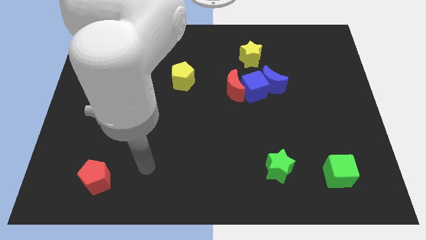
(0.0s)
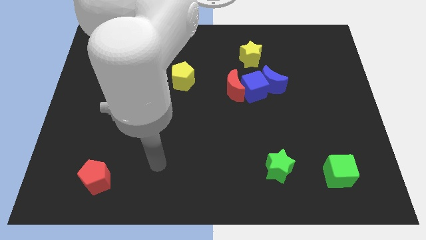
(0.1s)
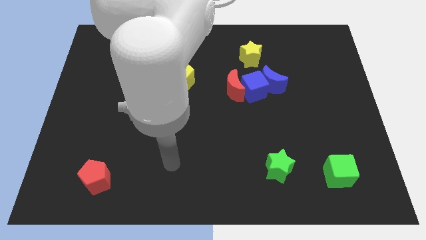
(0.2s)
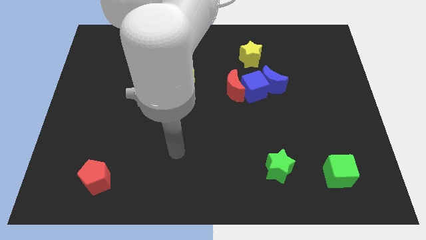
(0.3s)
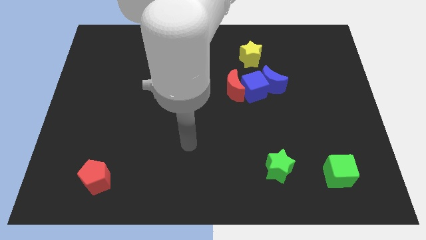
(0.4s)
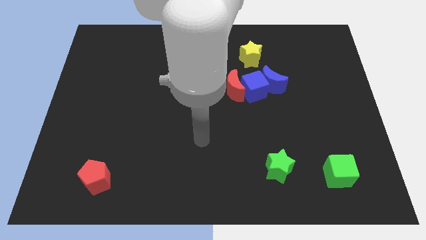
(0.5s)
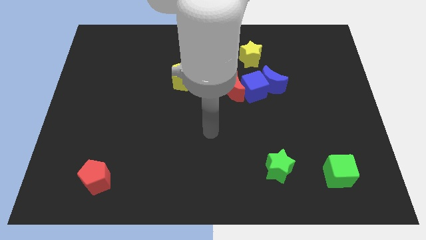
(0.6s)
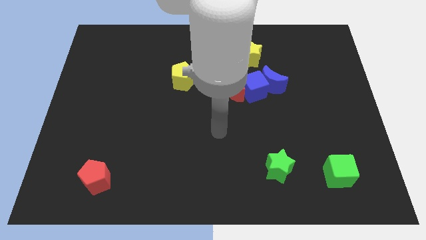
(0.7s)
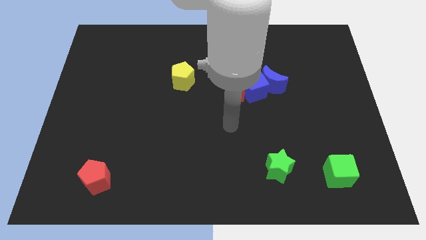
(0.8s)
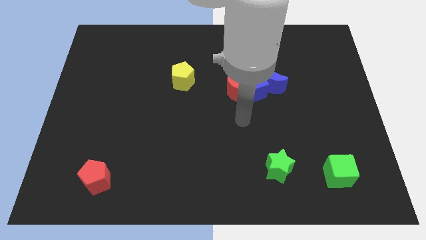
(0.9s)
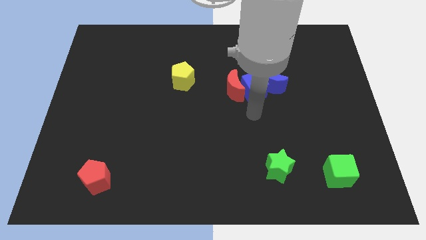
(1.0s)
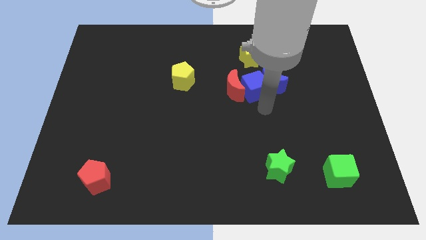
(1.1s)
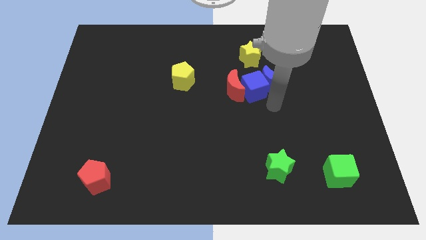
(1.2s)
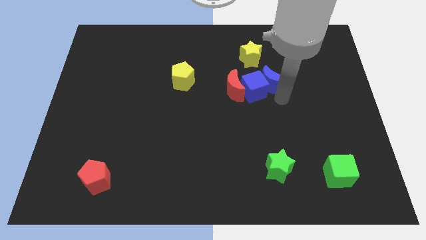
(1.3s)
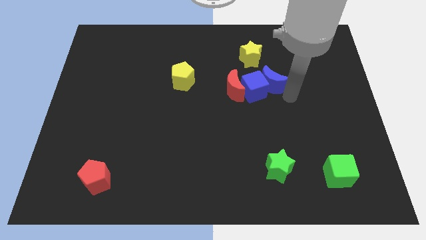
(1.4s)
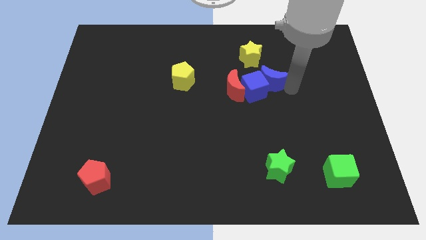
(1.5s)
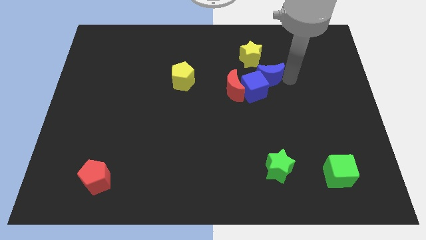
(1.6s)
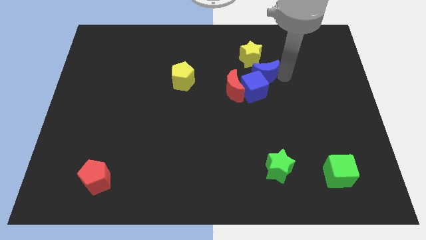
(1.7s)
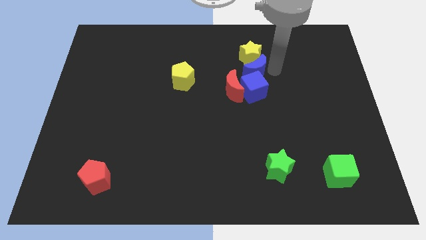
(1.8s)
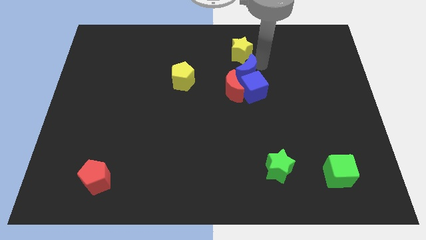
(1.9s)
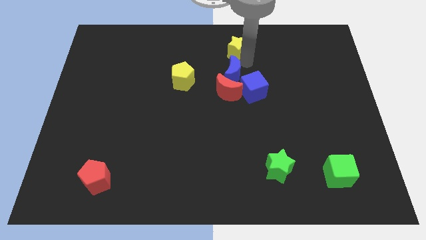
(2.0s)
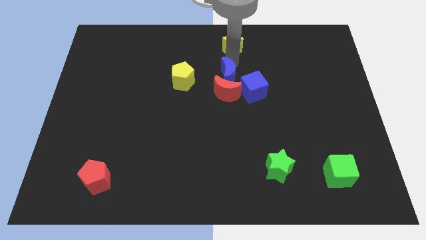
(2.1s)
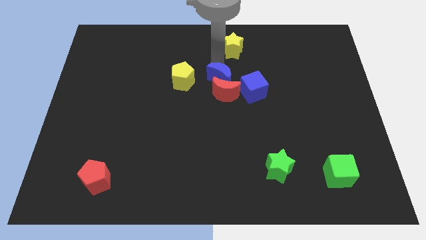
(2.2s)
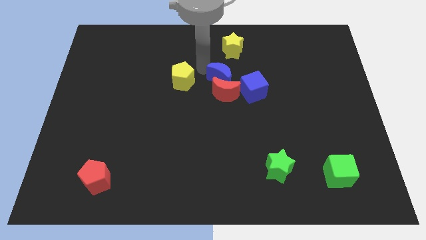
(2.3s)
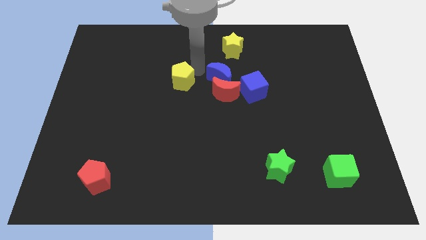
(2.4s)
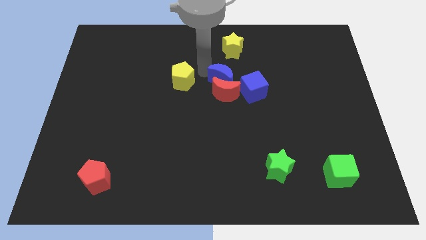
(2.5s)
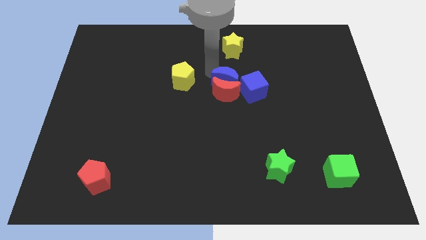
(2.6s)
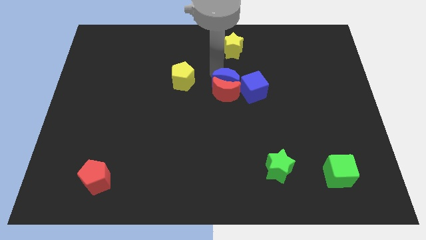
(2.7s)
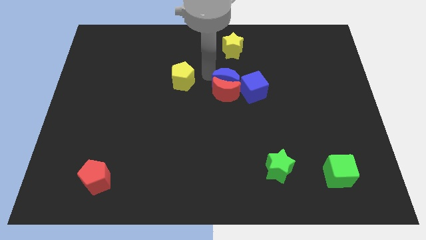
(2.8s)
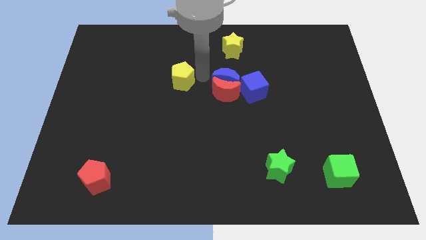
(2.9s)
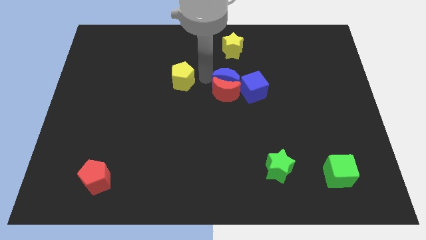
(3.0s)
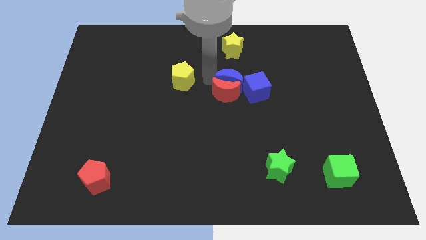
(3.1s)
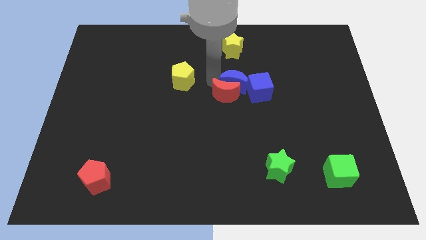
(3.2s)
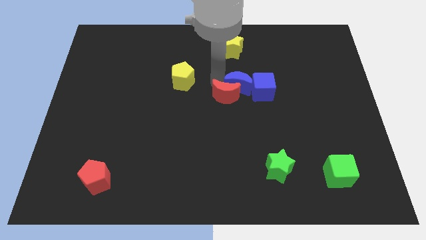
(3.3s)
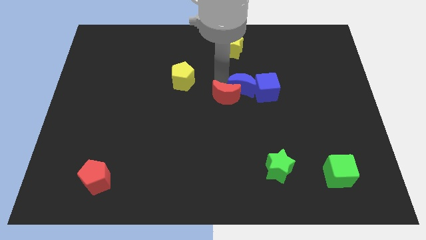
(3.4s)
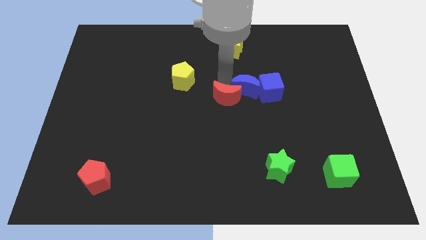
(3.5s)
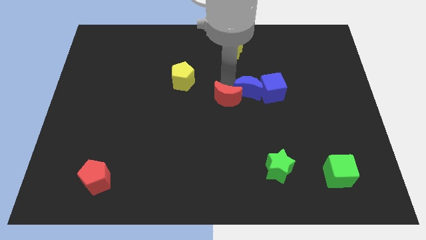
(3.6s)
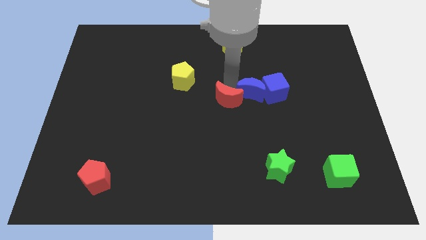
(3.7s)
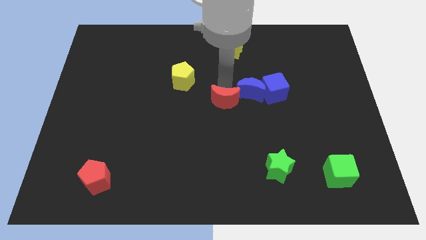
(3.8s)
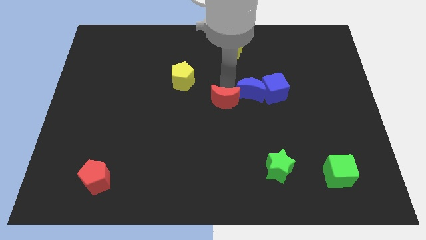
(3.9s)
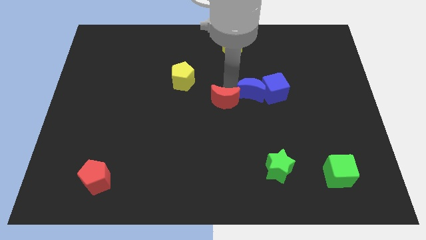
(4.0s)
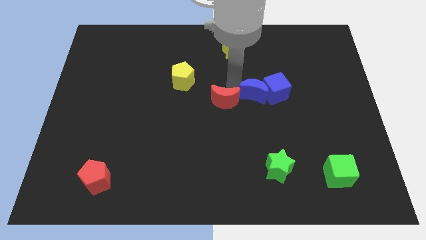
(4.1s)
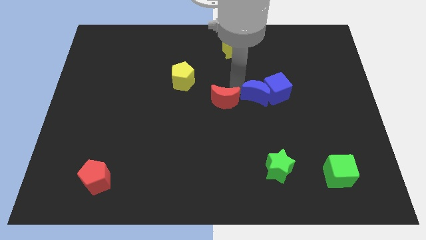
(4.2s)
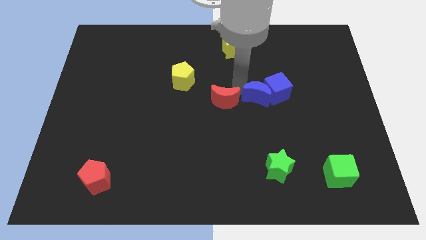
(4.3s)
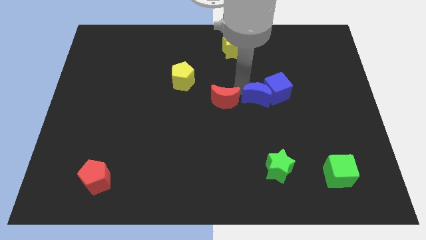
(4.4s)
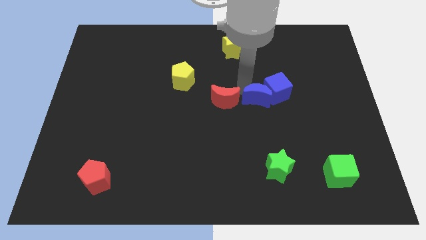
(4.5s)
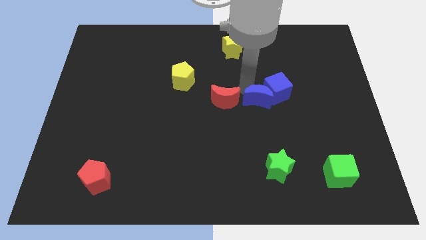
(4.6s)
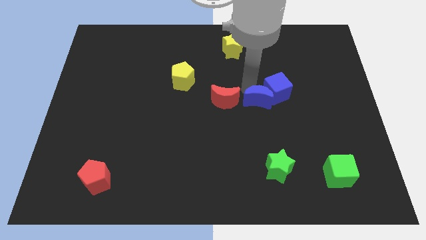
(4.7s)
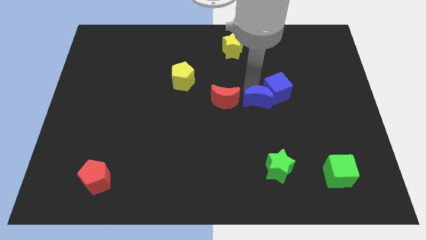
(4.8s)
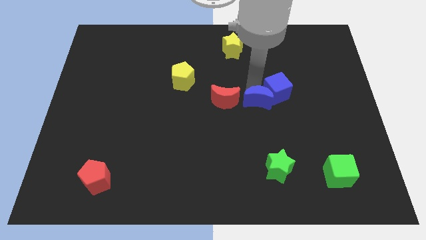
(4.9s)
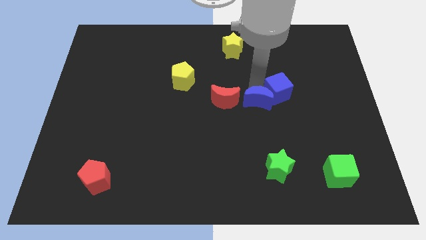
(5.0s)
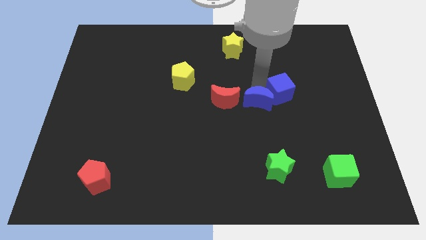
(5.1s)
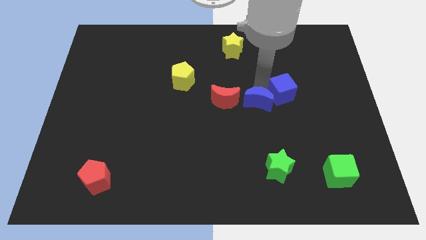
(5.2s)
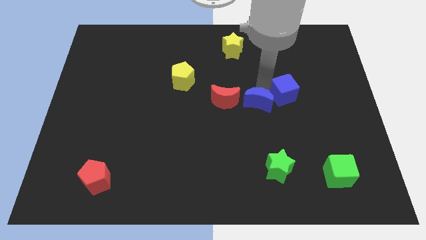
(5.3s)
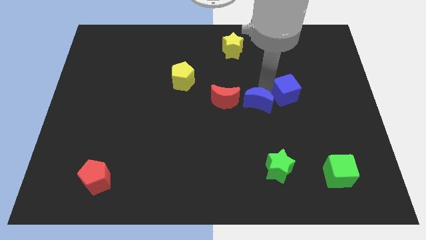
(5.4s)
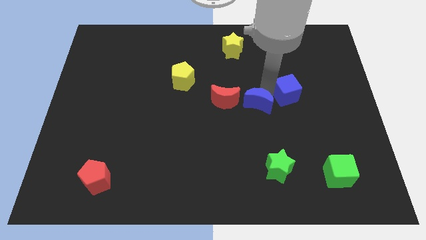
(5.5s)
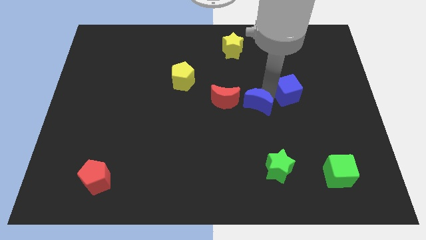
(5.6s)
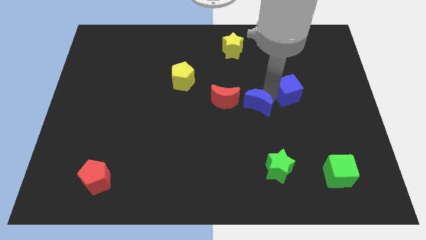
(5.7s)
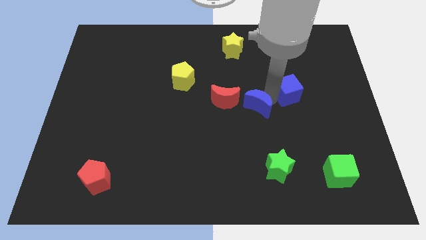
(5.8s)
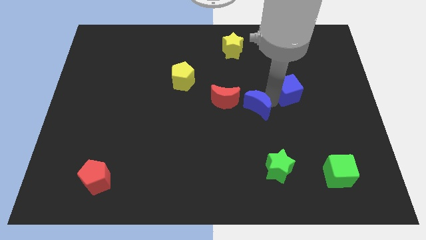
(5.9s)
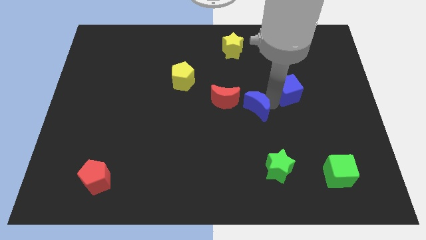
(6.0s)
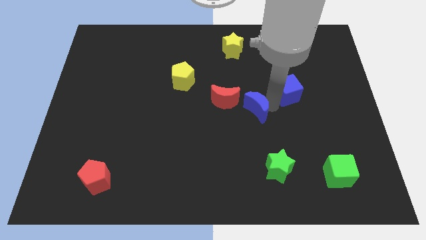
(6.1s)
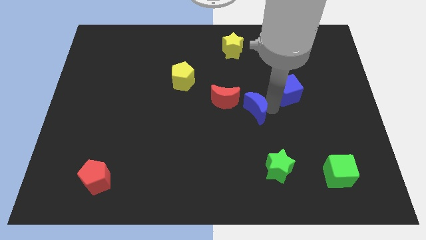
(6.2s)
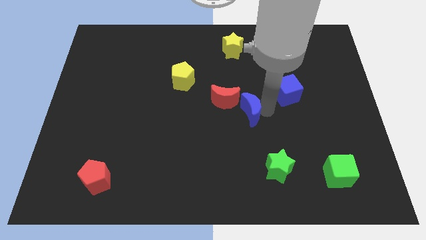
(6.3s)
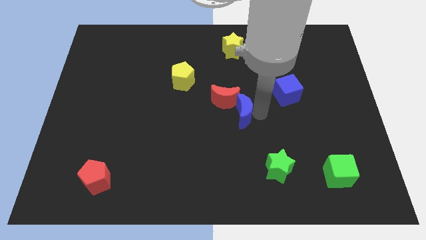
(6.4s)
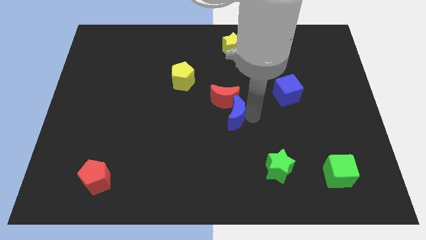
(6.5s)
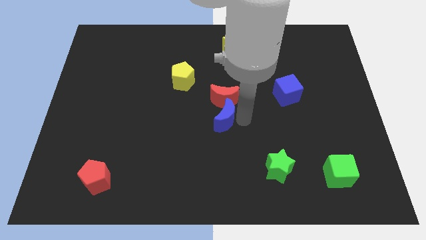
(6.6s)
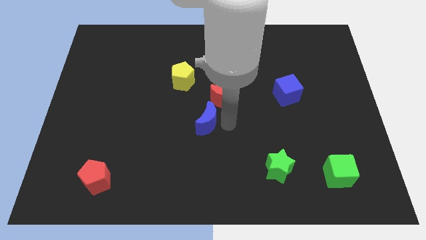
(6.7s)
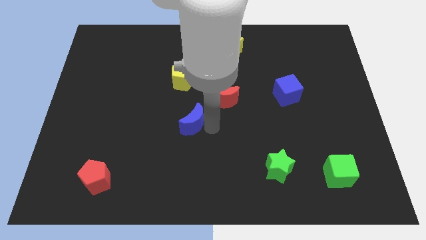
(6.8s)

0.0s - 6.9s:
move the blue moon diagonally downwards and to the left

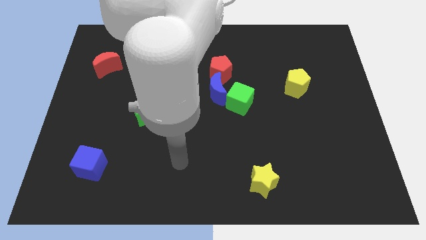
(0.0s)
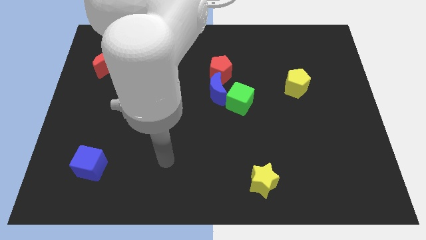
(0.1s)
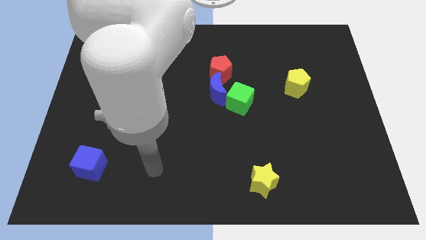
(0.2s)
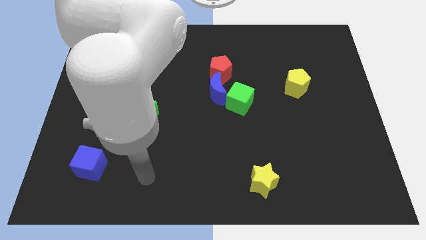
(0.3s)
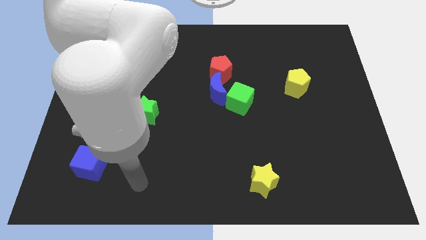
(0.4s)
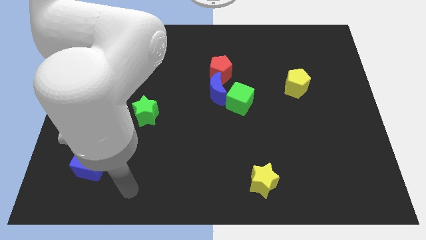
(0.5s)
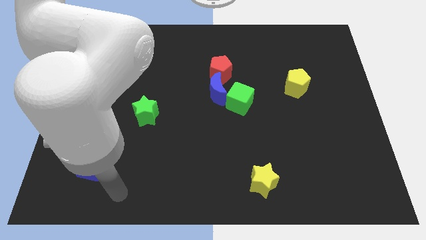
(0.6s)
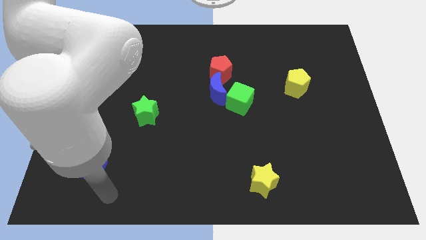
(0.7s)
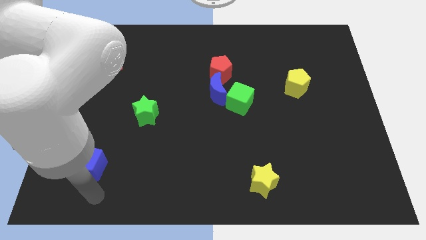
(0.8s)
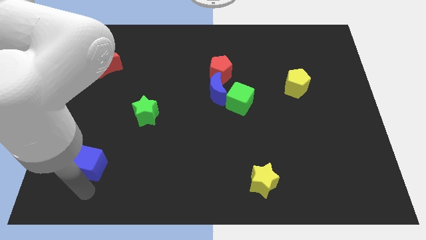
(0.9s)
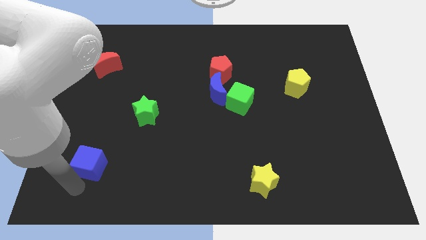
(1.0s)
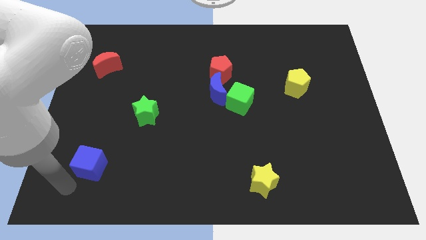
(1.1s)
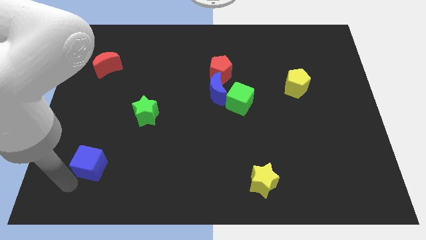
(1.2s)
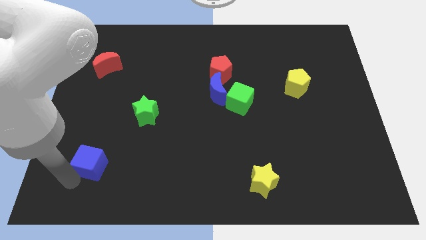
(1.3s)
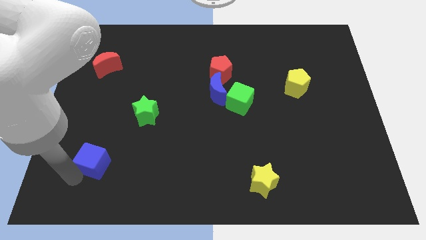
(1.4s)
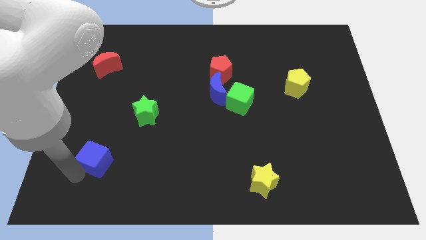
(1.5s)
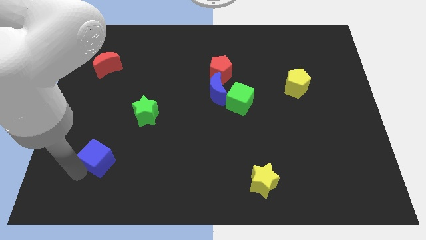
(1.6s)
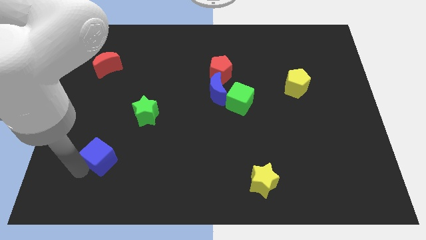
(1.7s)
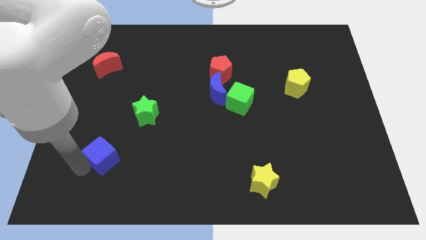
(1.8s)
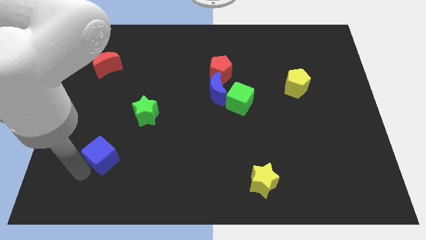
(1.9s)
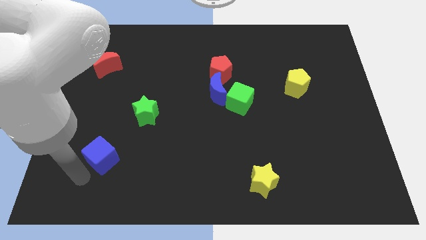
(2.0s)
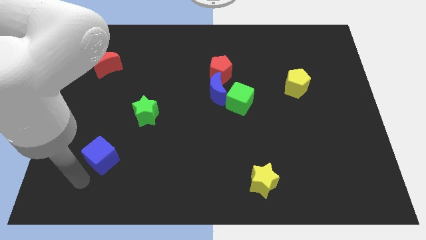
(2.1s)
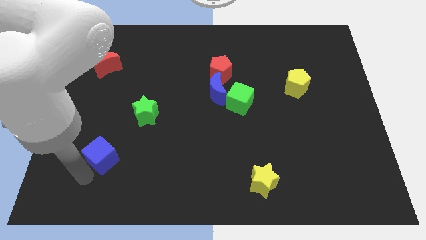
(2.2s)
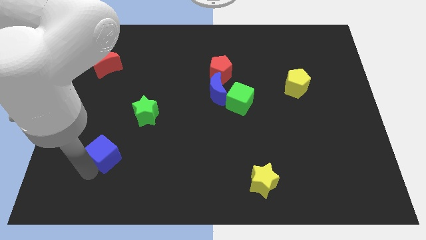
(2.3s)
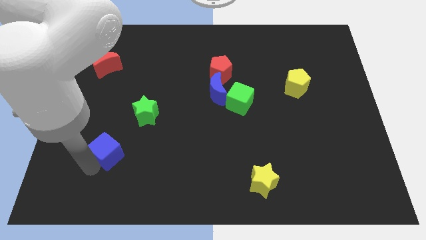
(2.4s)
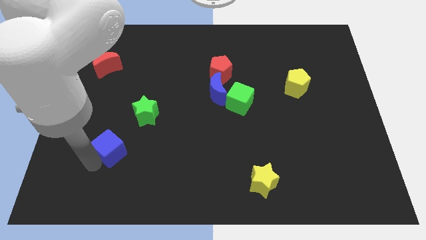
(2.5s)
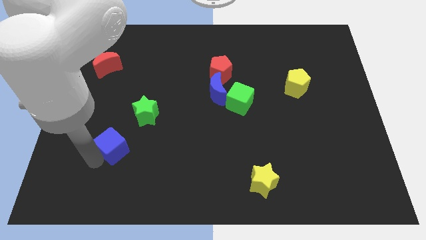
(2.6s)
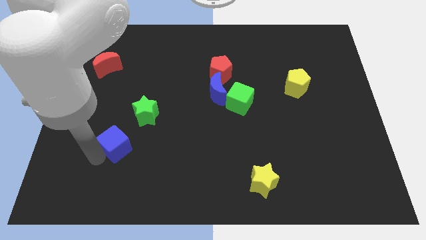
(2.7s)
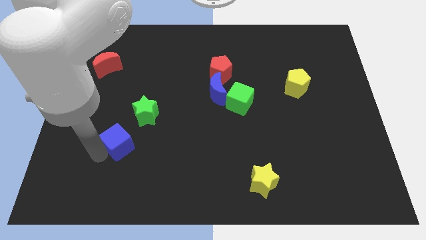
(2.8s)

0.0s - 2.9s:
slightly push the blue cube up and right
